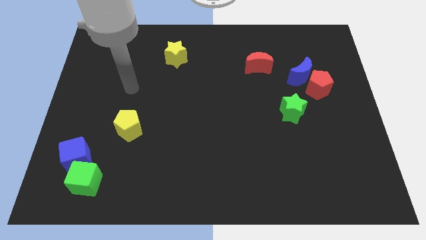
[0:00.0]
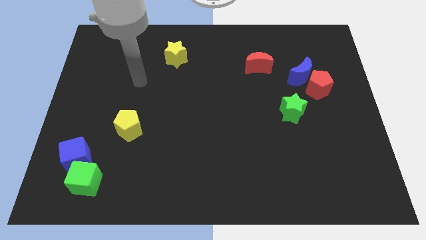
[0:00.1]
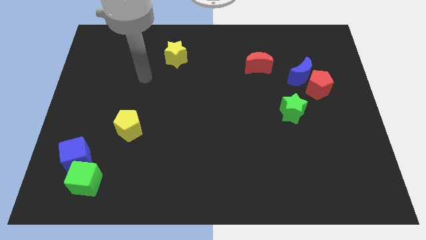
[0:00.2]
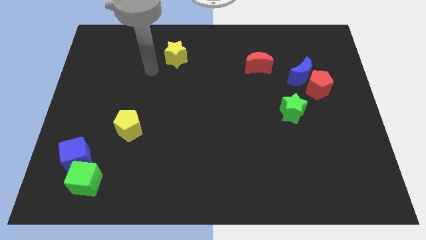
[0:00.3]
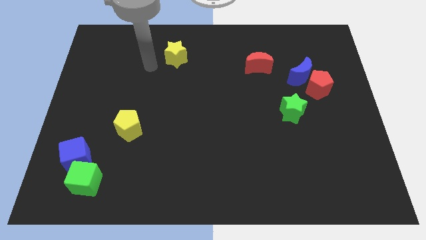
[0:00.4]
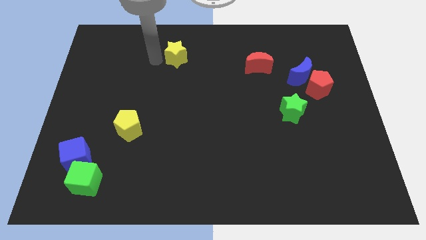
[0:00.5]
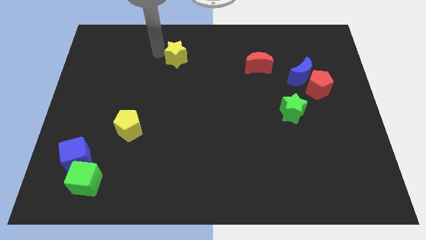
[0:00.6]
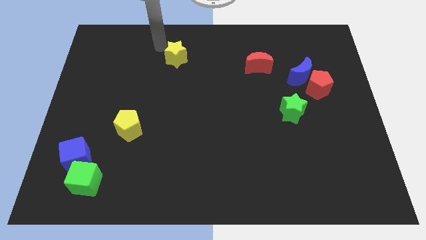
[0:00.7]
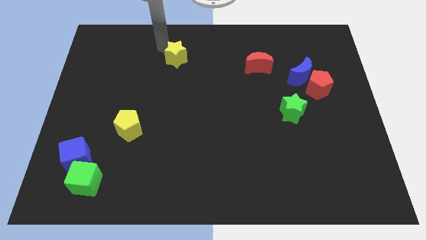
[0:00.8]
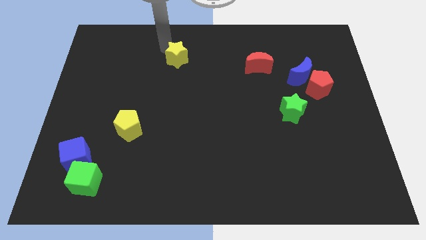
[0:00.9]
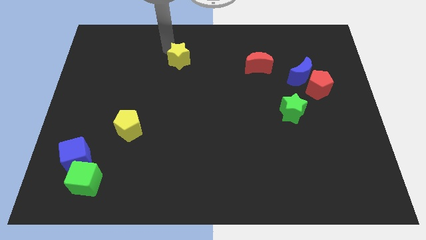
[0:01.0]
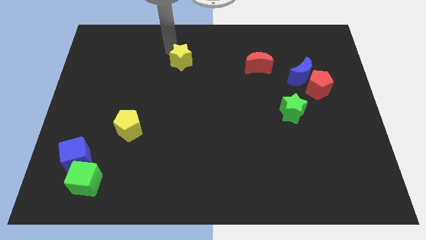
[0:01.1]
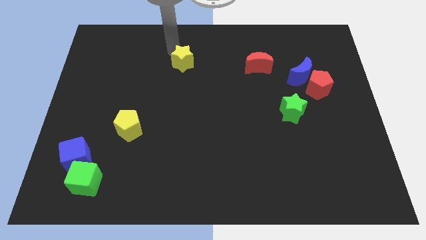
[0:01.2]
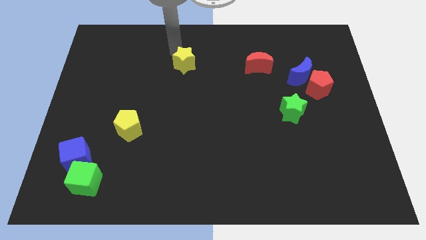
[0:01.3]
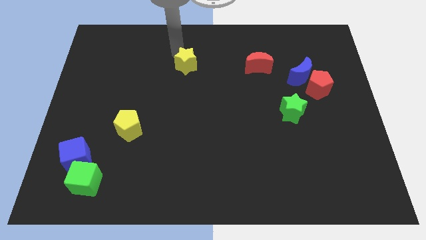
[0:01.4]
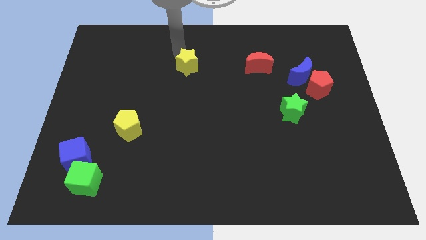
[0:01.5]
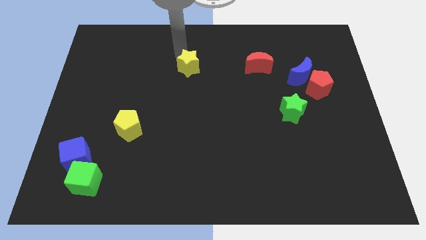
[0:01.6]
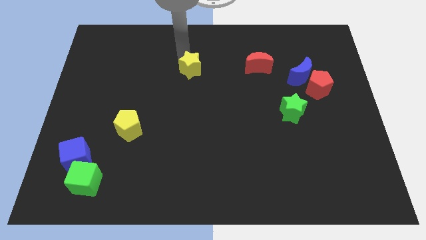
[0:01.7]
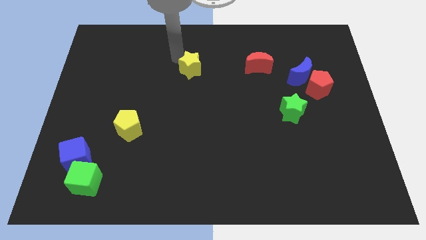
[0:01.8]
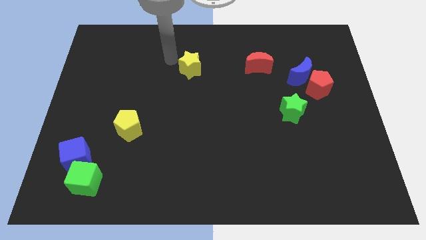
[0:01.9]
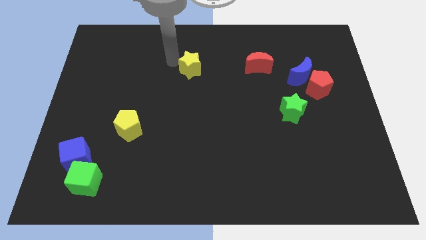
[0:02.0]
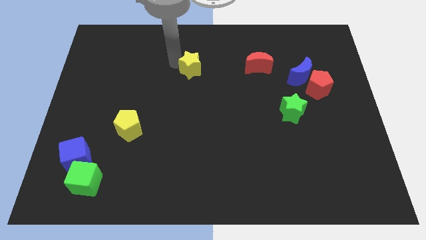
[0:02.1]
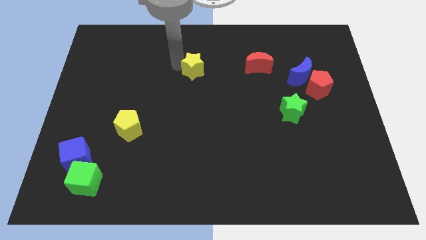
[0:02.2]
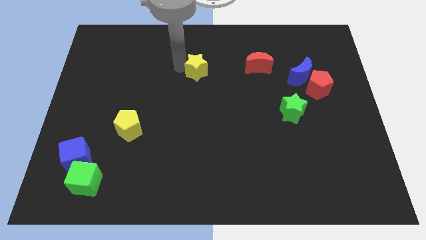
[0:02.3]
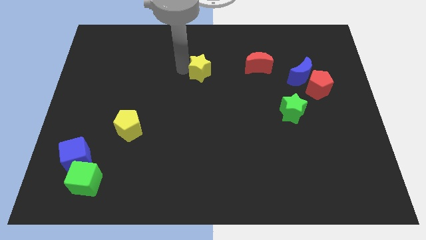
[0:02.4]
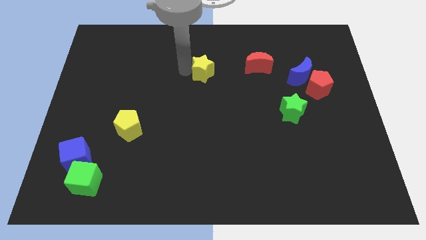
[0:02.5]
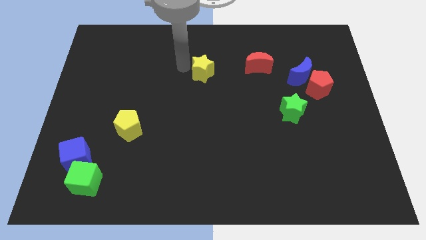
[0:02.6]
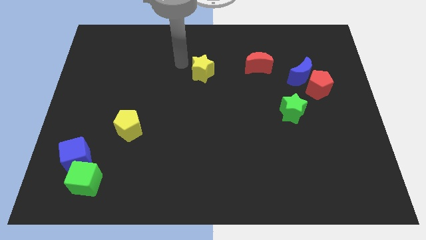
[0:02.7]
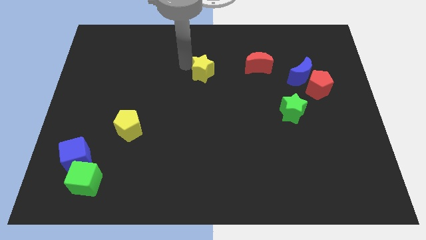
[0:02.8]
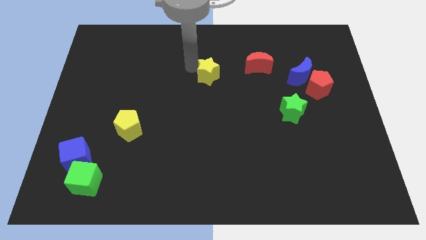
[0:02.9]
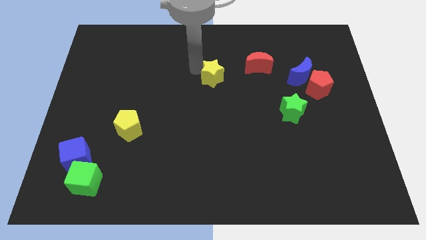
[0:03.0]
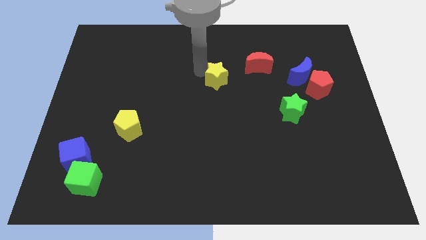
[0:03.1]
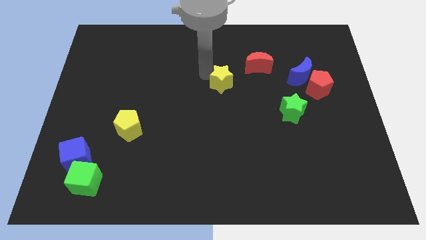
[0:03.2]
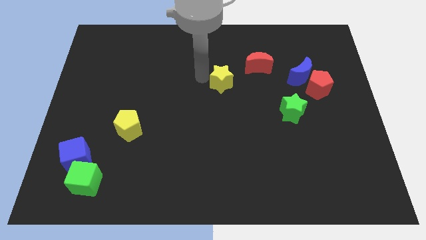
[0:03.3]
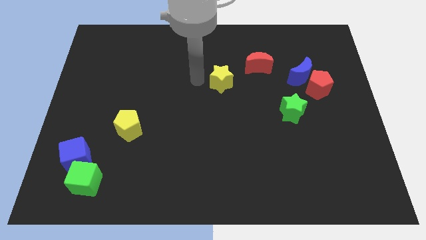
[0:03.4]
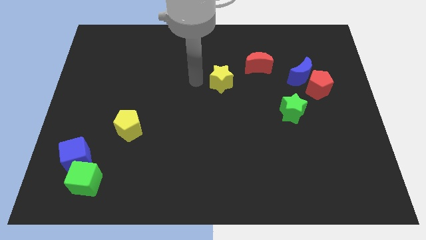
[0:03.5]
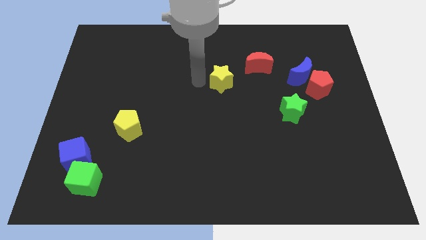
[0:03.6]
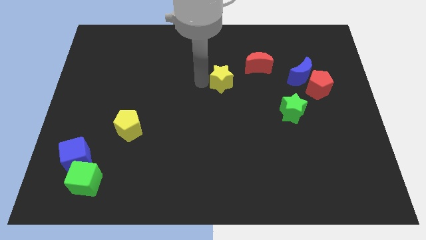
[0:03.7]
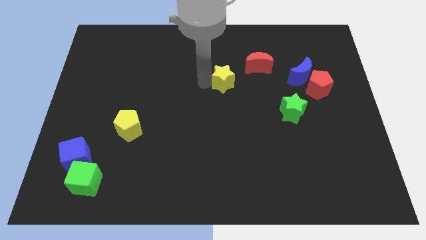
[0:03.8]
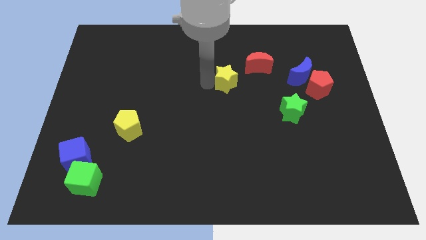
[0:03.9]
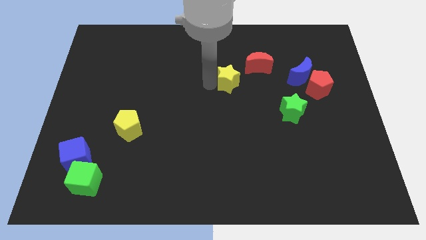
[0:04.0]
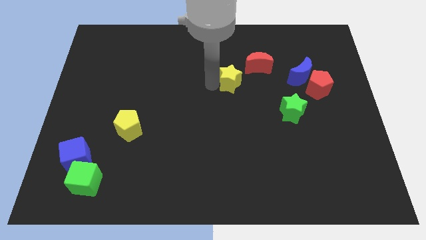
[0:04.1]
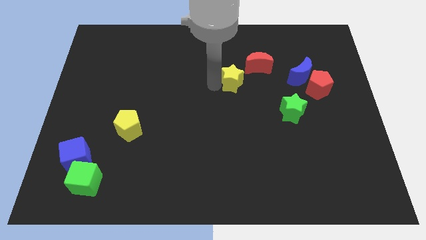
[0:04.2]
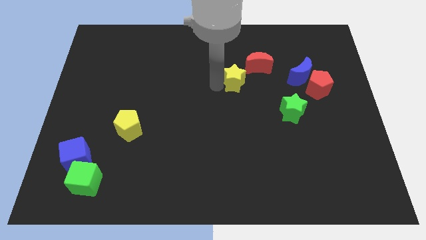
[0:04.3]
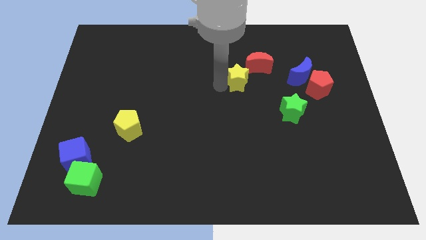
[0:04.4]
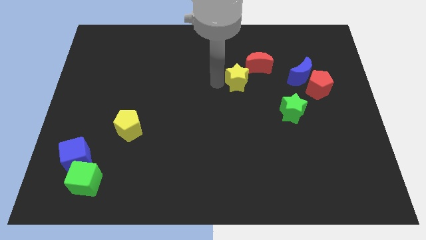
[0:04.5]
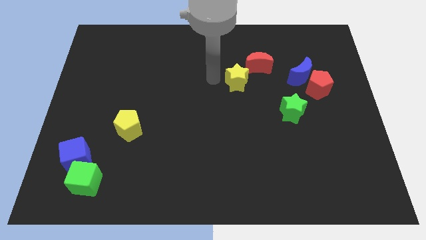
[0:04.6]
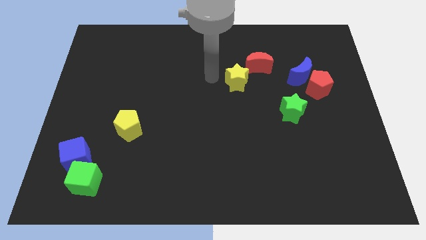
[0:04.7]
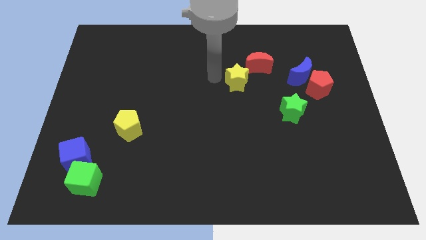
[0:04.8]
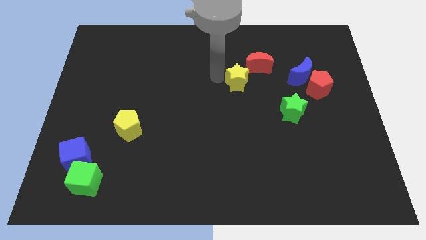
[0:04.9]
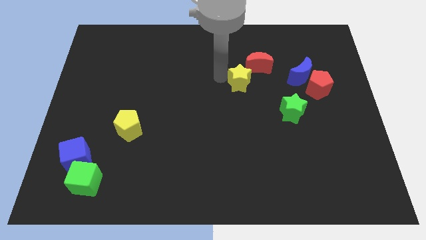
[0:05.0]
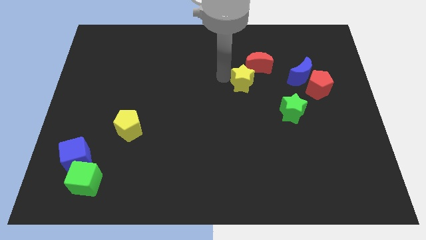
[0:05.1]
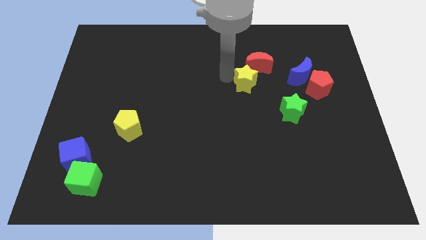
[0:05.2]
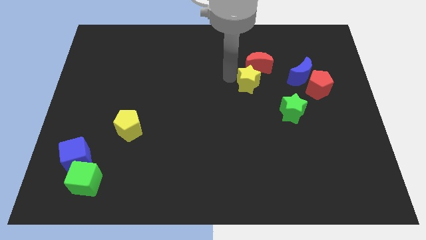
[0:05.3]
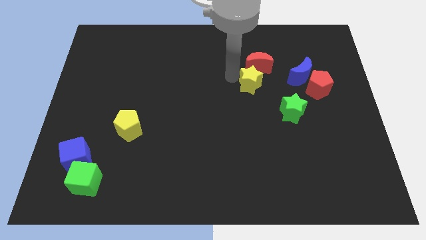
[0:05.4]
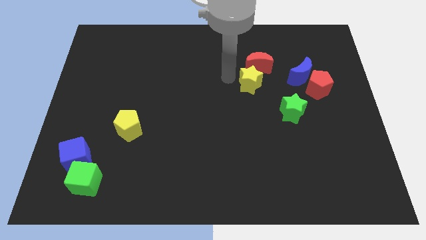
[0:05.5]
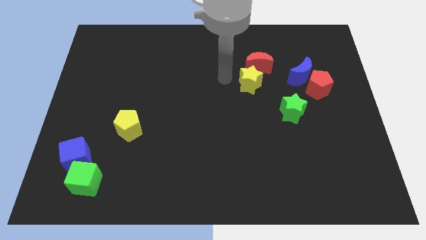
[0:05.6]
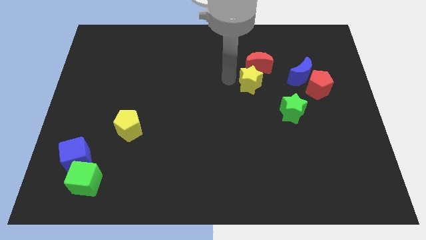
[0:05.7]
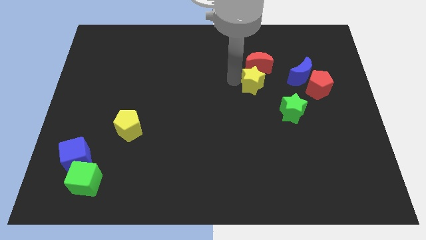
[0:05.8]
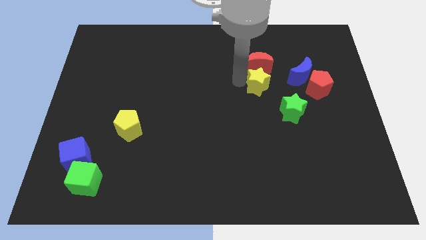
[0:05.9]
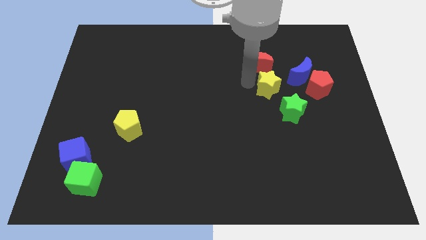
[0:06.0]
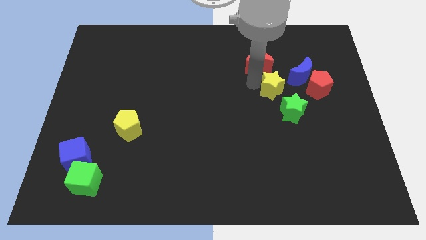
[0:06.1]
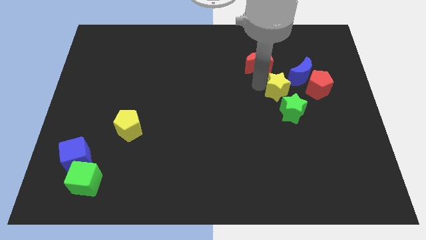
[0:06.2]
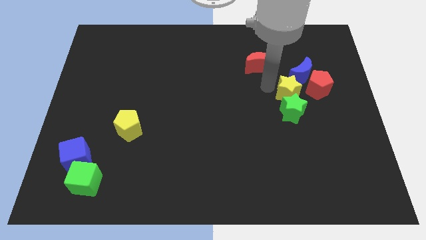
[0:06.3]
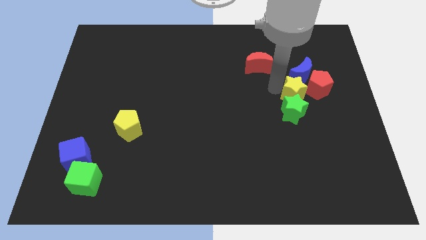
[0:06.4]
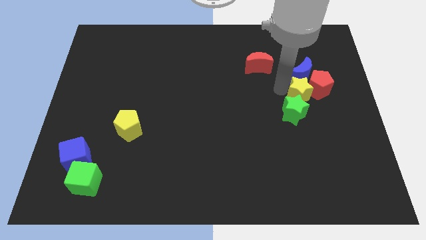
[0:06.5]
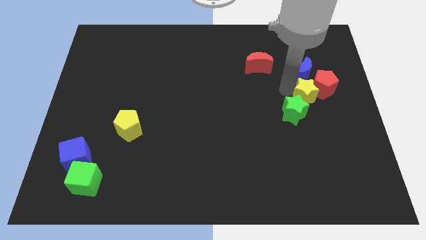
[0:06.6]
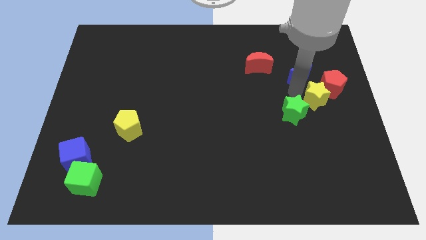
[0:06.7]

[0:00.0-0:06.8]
slide the yellow star right of the green star

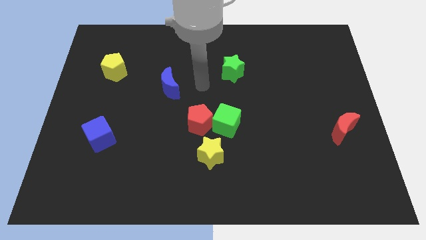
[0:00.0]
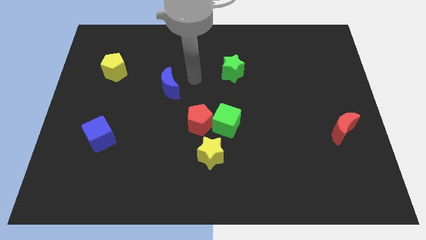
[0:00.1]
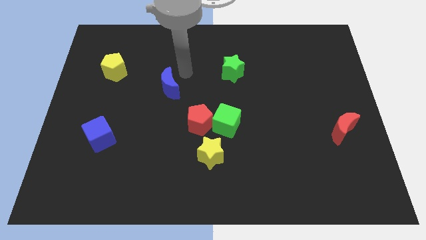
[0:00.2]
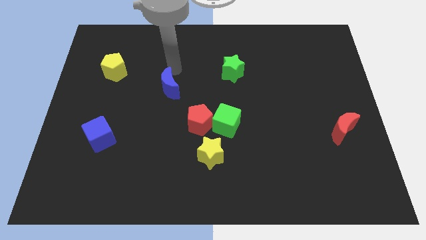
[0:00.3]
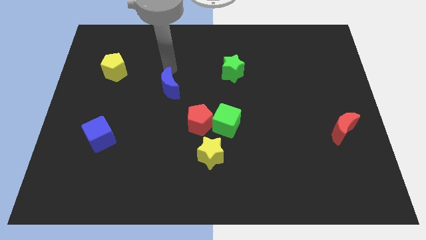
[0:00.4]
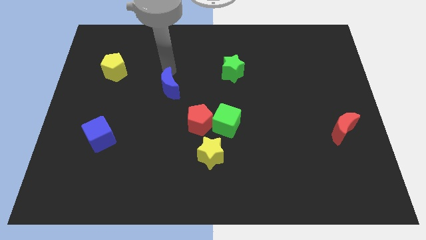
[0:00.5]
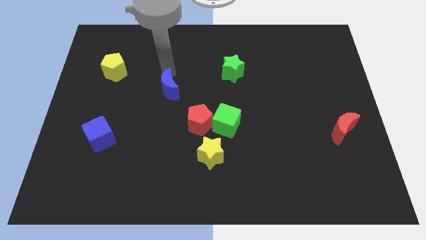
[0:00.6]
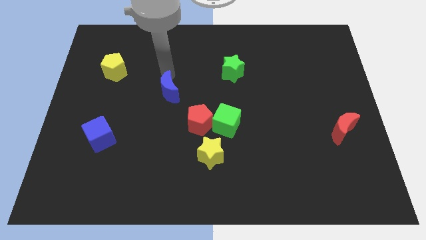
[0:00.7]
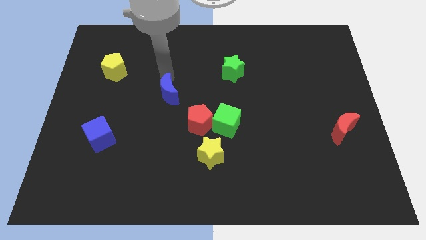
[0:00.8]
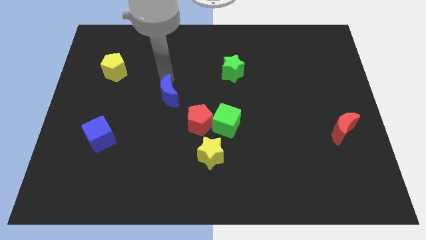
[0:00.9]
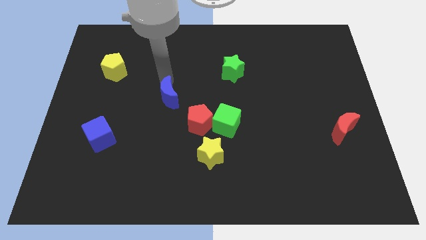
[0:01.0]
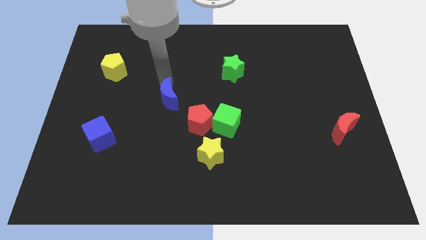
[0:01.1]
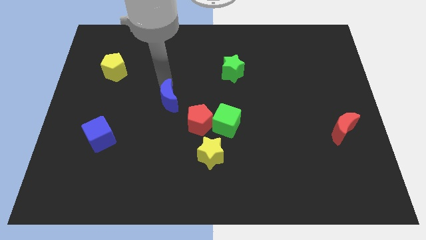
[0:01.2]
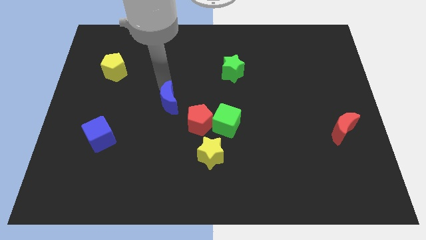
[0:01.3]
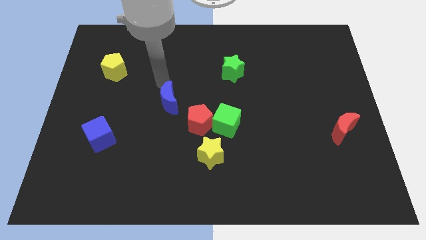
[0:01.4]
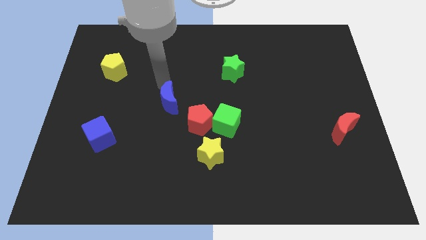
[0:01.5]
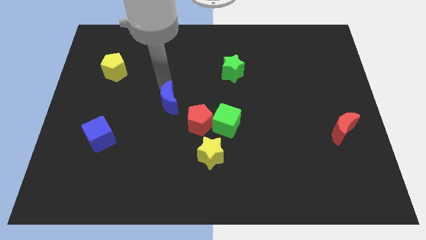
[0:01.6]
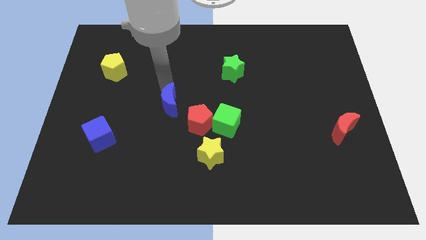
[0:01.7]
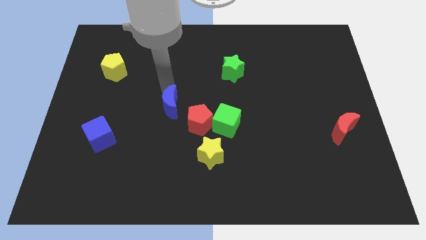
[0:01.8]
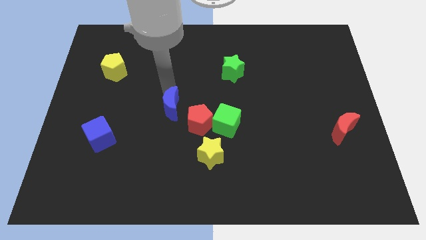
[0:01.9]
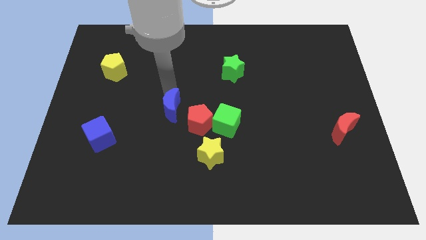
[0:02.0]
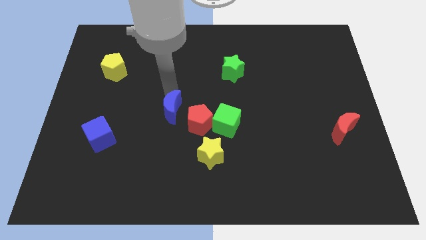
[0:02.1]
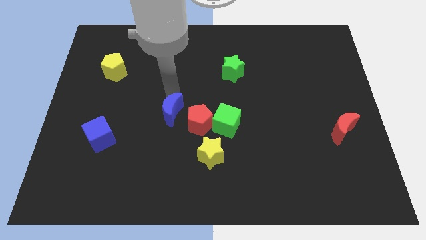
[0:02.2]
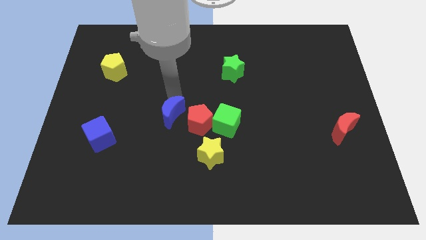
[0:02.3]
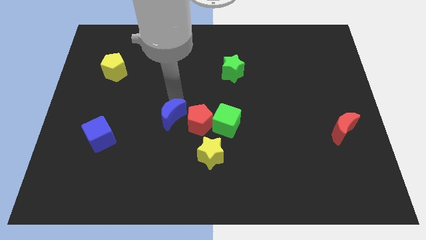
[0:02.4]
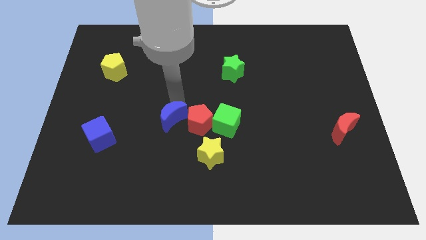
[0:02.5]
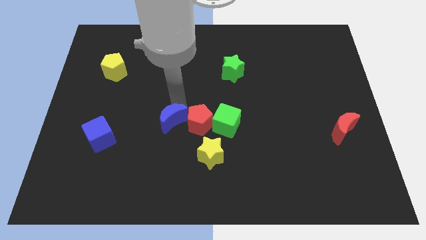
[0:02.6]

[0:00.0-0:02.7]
move the blue moon to the top left of the yellow star
